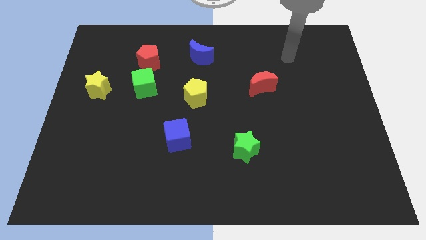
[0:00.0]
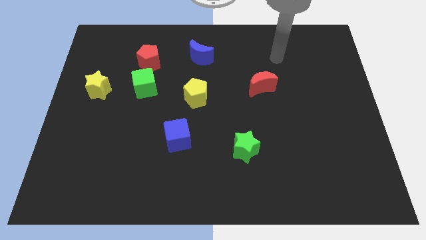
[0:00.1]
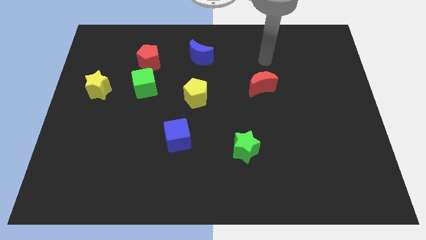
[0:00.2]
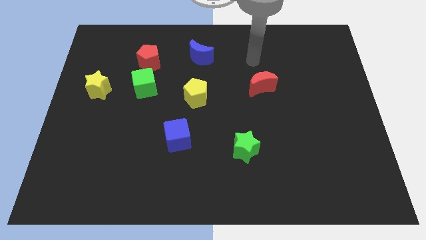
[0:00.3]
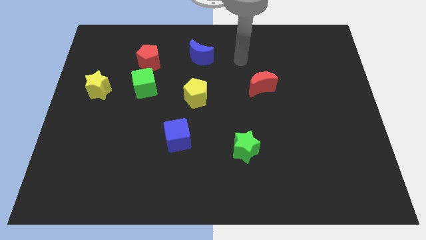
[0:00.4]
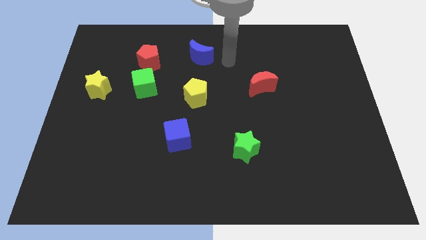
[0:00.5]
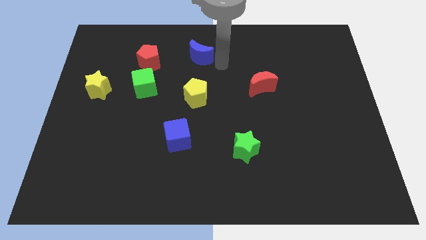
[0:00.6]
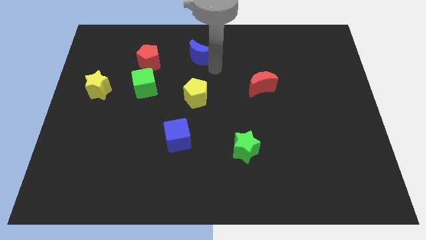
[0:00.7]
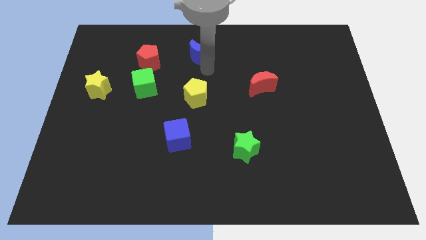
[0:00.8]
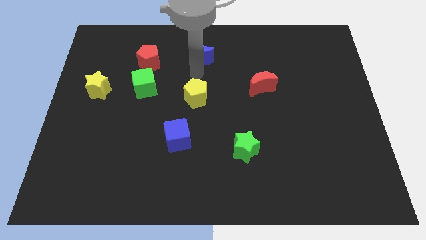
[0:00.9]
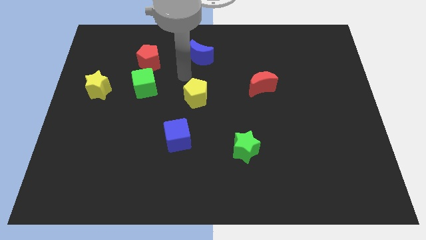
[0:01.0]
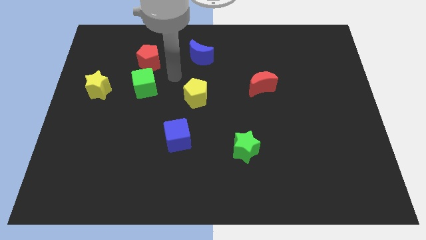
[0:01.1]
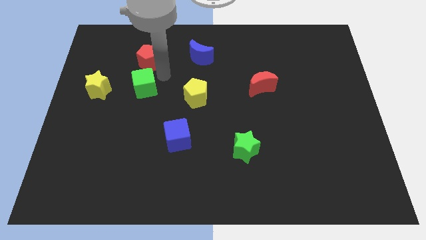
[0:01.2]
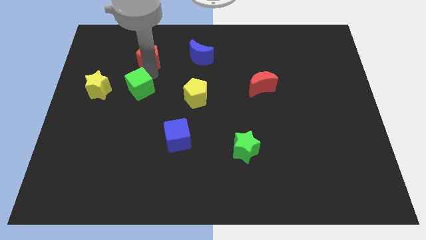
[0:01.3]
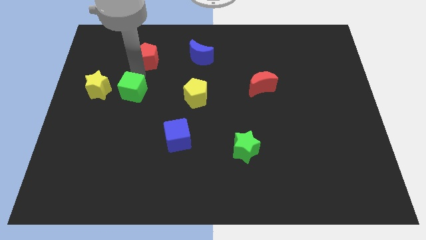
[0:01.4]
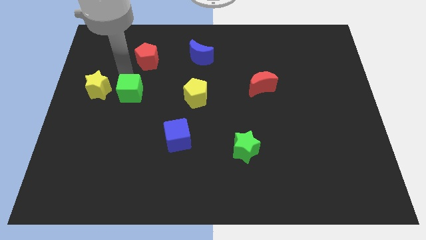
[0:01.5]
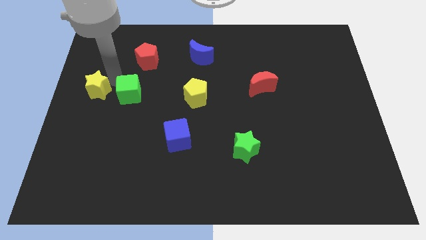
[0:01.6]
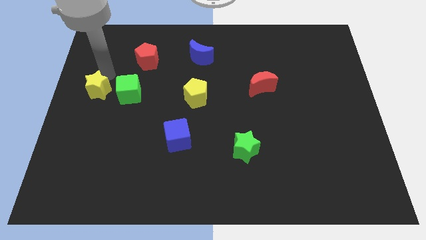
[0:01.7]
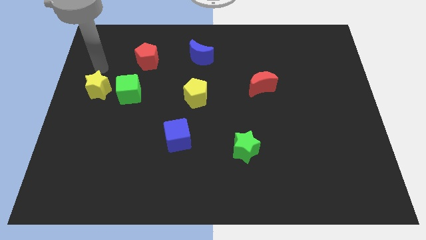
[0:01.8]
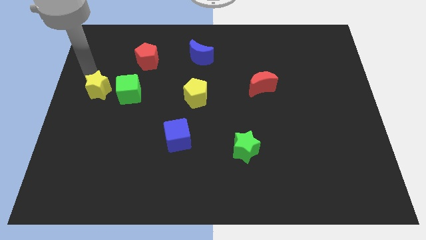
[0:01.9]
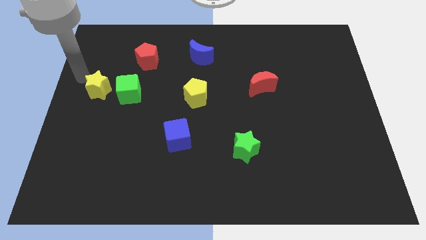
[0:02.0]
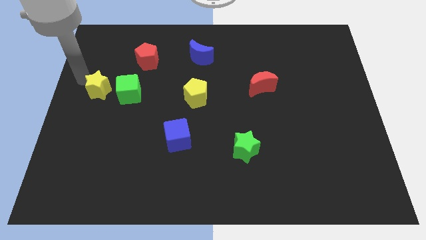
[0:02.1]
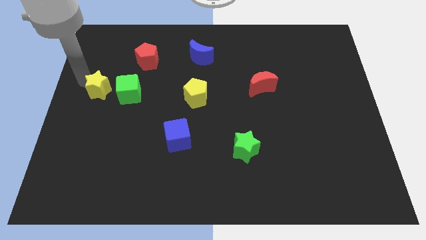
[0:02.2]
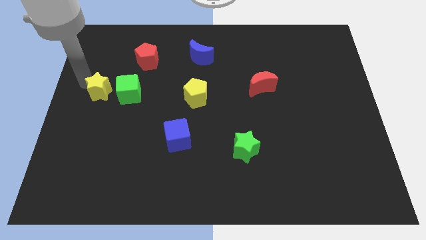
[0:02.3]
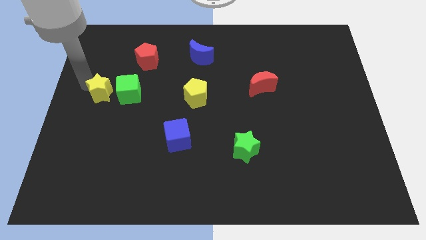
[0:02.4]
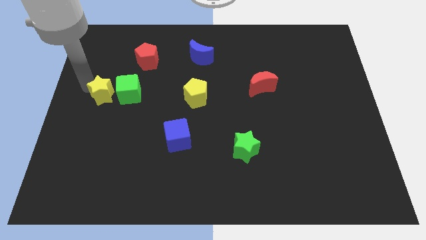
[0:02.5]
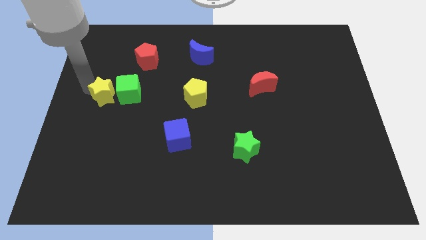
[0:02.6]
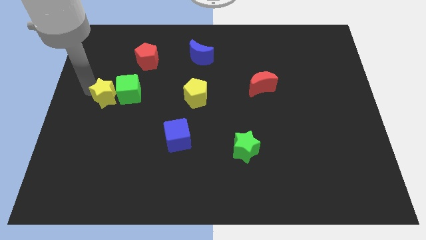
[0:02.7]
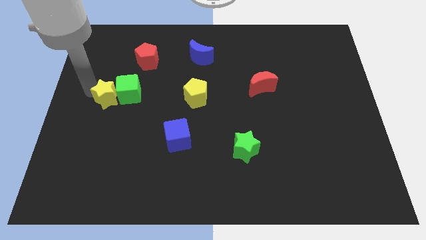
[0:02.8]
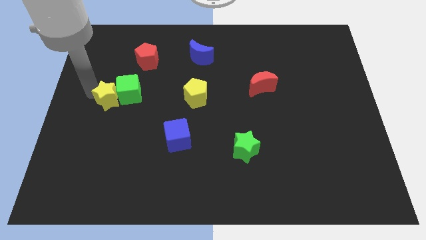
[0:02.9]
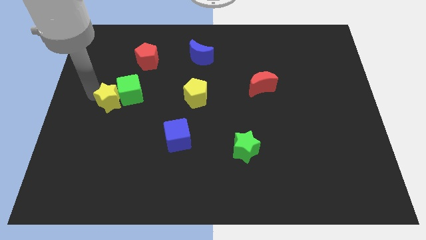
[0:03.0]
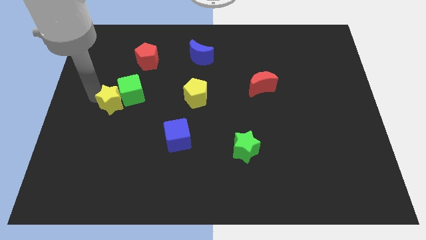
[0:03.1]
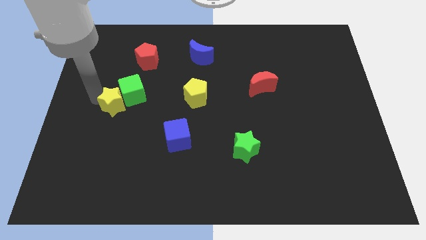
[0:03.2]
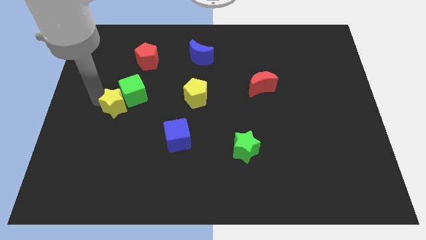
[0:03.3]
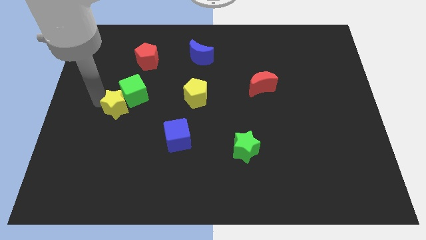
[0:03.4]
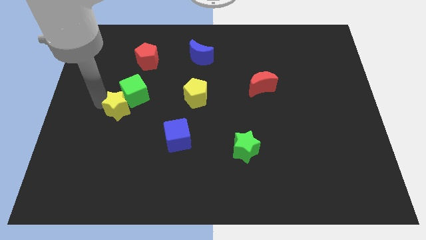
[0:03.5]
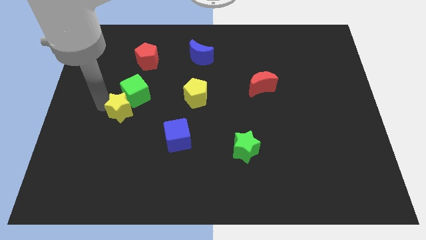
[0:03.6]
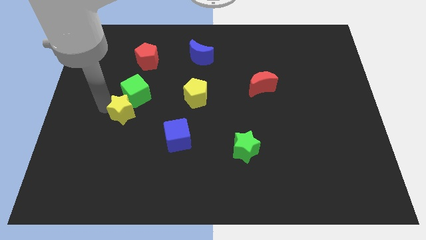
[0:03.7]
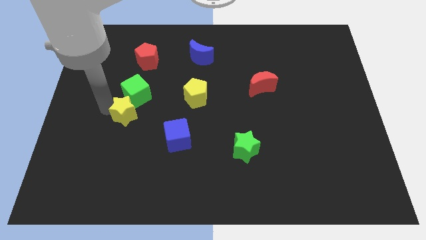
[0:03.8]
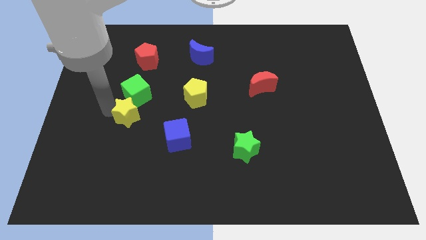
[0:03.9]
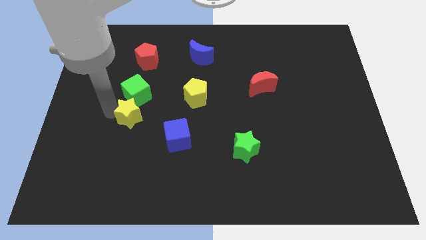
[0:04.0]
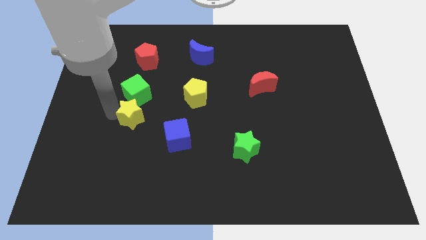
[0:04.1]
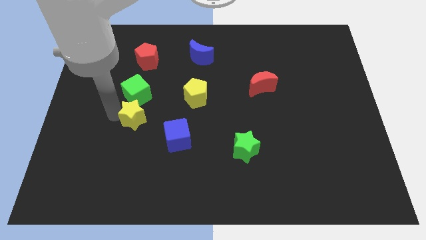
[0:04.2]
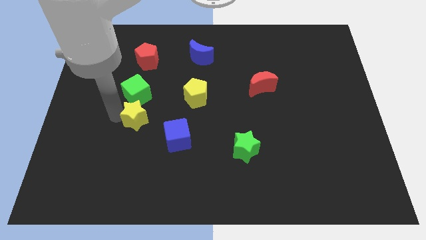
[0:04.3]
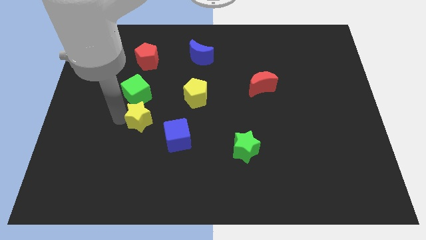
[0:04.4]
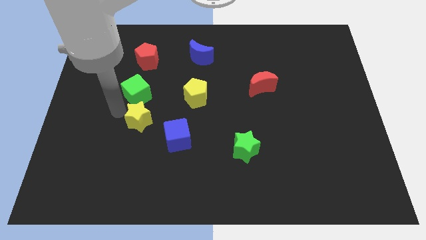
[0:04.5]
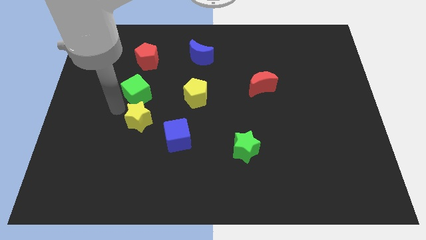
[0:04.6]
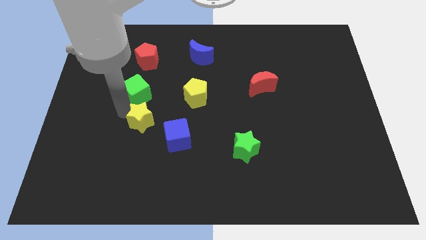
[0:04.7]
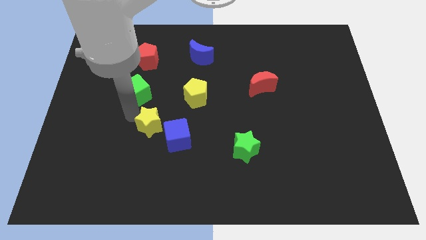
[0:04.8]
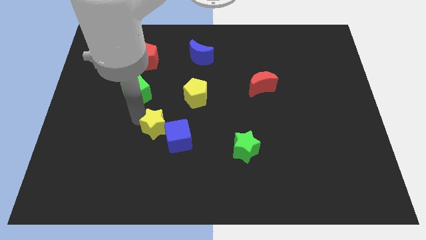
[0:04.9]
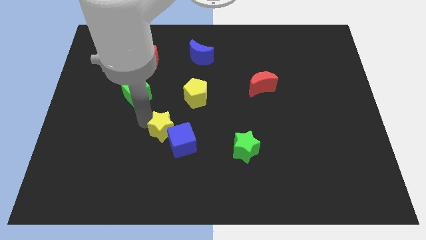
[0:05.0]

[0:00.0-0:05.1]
slide the yellow star next to the blue cube

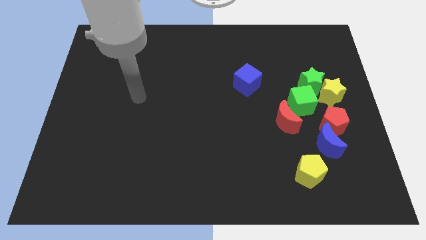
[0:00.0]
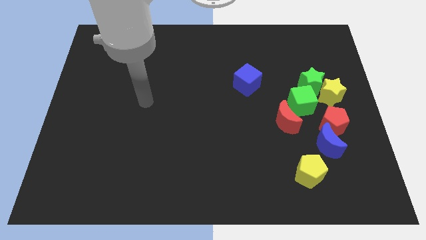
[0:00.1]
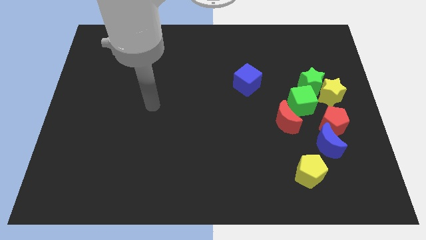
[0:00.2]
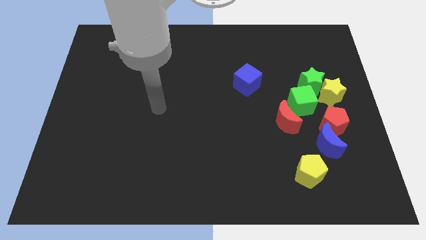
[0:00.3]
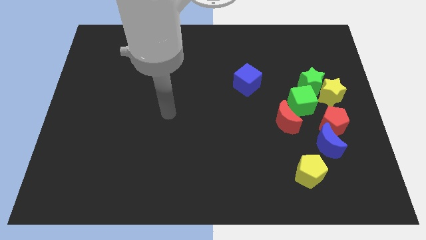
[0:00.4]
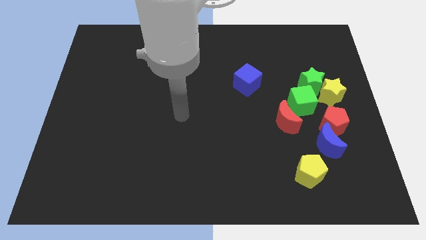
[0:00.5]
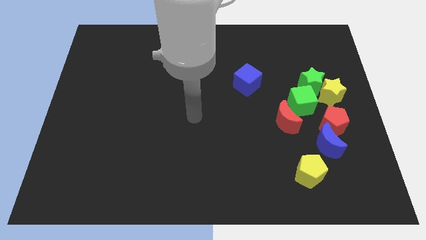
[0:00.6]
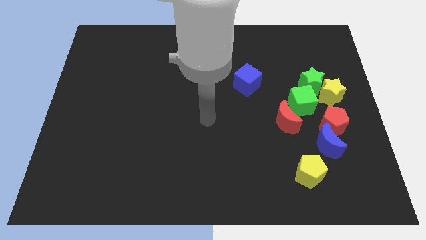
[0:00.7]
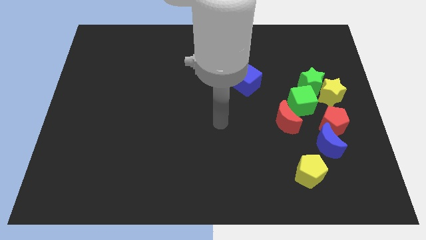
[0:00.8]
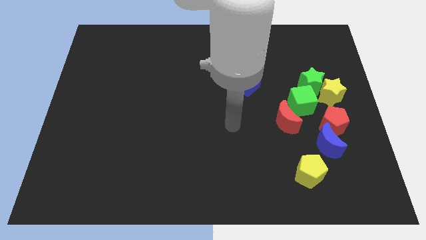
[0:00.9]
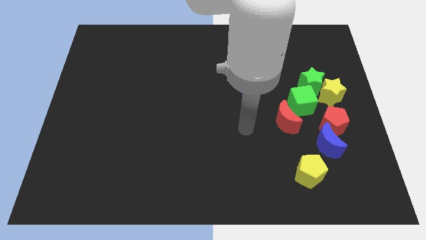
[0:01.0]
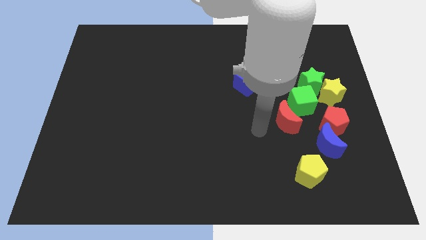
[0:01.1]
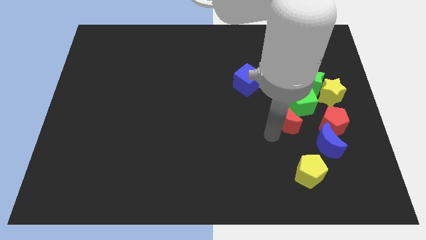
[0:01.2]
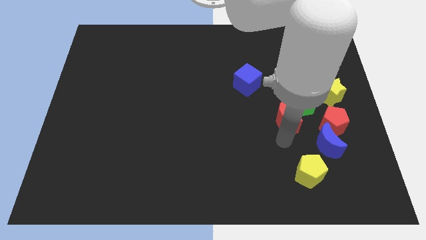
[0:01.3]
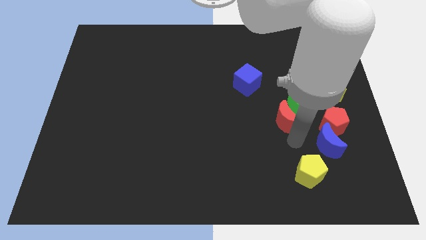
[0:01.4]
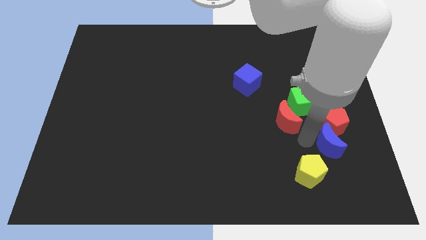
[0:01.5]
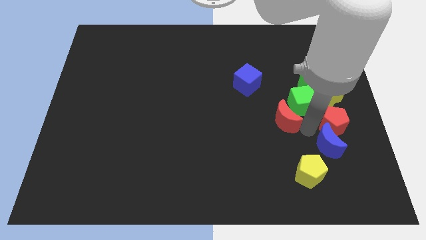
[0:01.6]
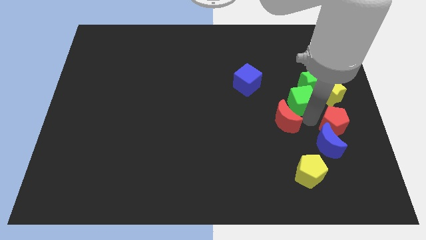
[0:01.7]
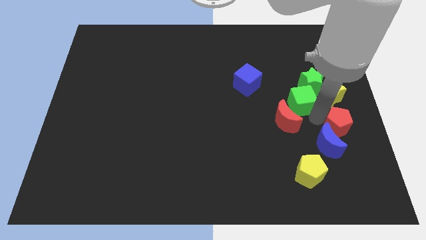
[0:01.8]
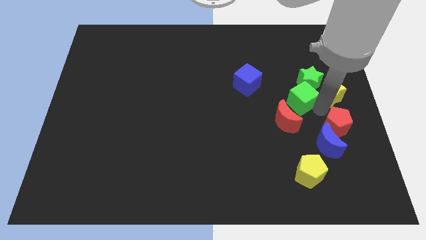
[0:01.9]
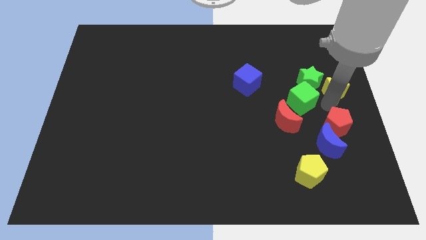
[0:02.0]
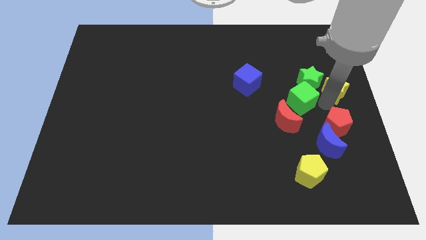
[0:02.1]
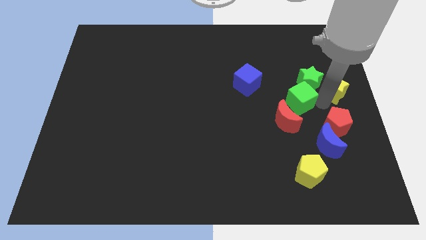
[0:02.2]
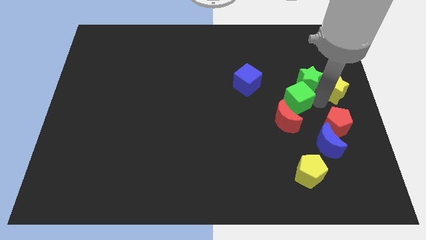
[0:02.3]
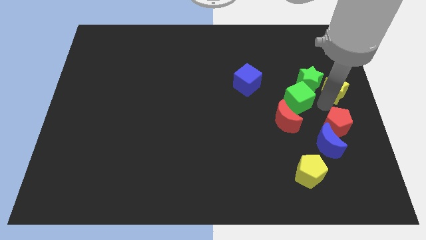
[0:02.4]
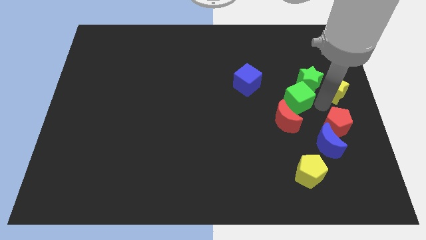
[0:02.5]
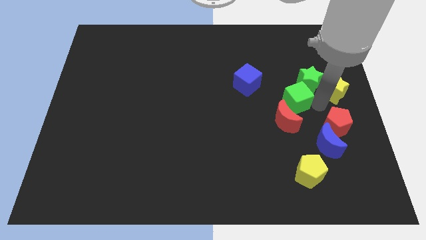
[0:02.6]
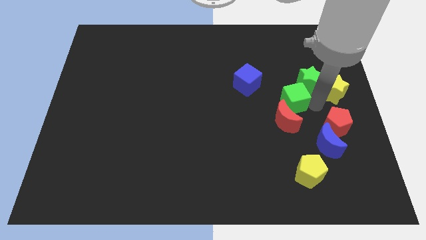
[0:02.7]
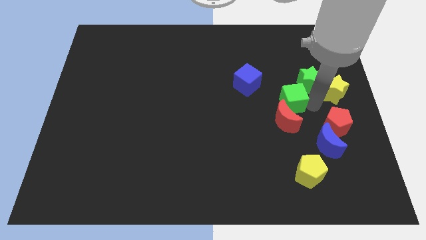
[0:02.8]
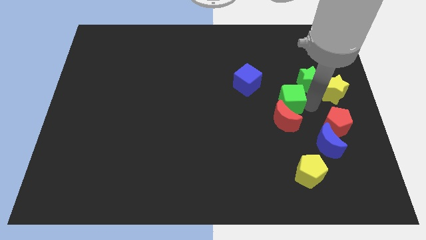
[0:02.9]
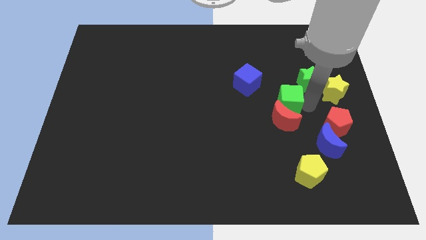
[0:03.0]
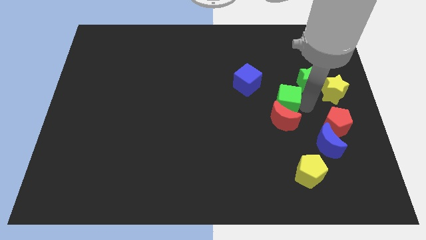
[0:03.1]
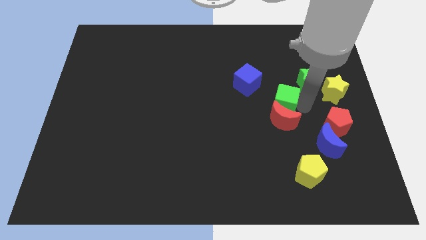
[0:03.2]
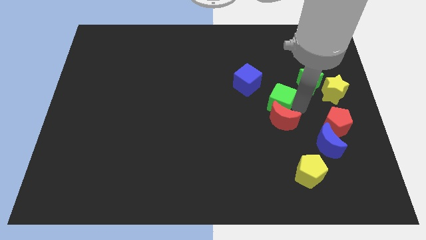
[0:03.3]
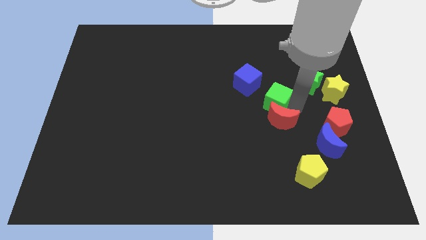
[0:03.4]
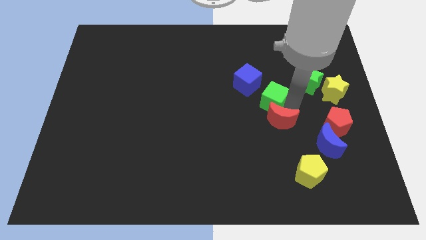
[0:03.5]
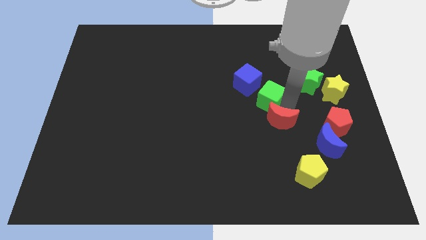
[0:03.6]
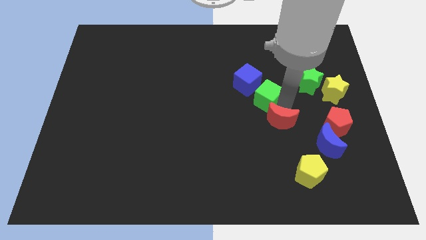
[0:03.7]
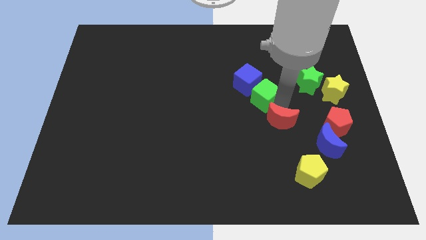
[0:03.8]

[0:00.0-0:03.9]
put the green cube close to the blue cube
